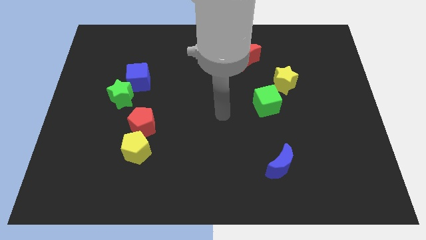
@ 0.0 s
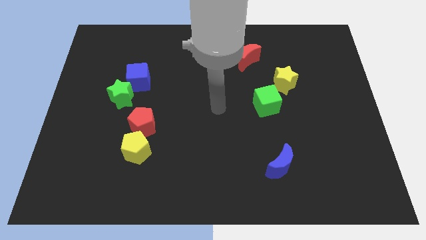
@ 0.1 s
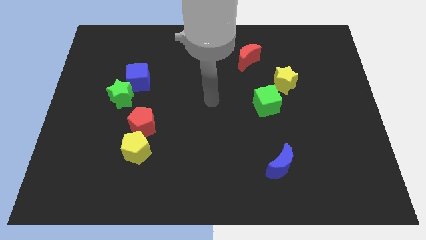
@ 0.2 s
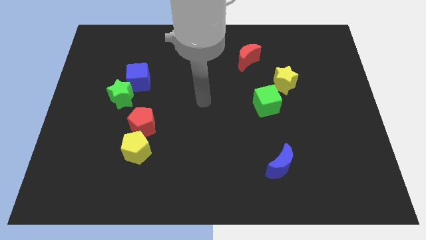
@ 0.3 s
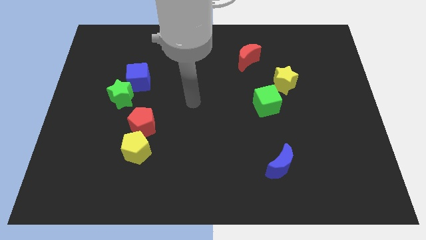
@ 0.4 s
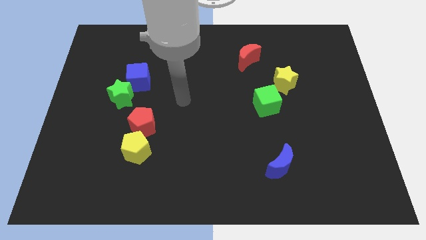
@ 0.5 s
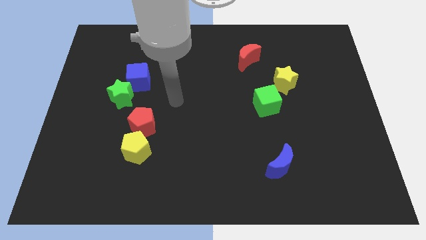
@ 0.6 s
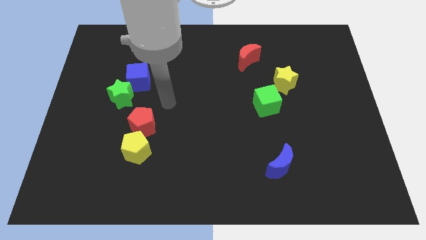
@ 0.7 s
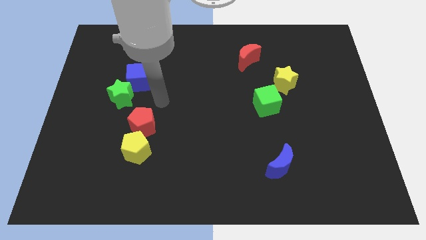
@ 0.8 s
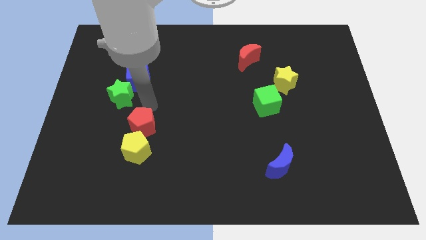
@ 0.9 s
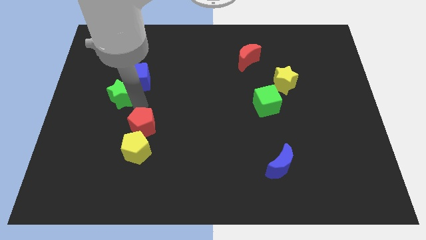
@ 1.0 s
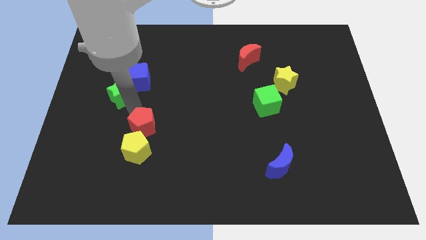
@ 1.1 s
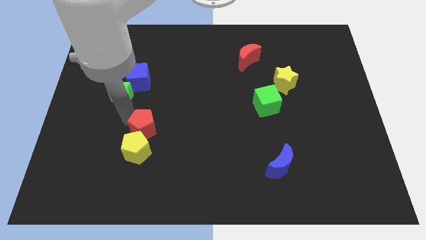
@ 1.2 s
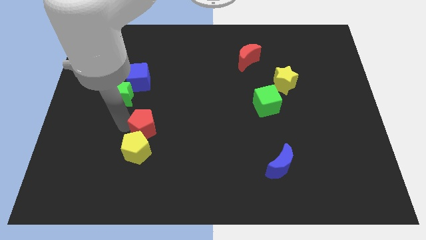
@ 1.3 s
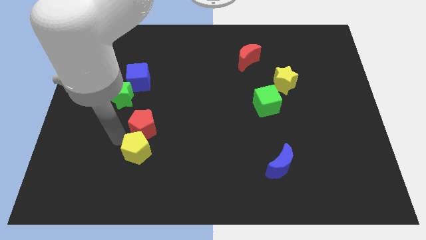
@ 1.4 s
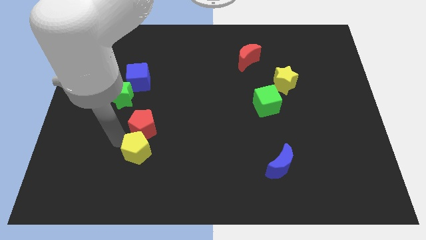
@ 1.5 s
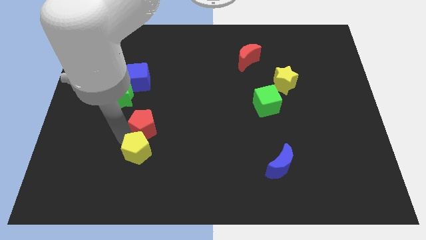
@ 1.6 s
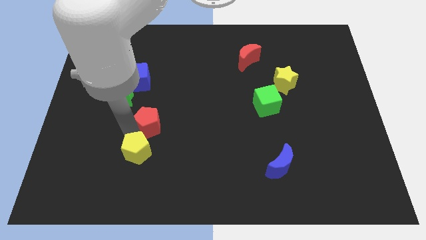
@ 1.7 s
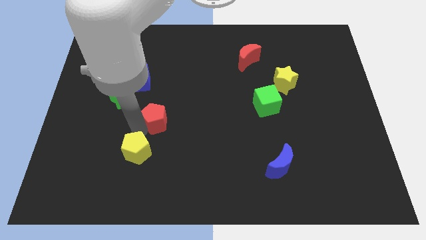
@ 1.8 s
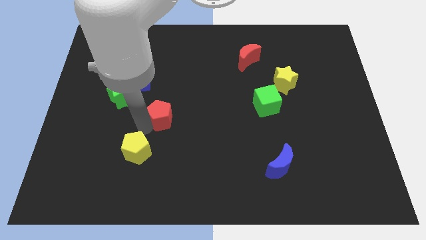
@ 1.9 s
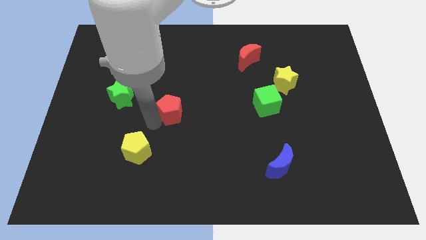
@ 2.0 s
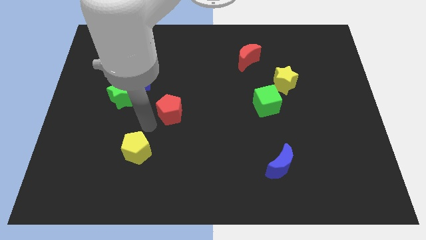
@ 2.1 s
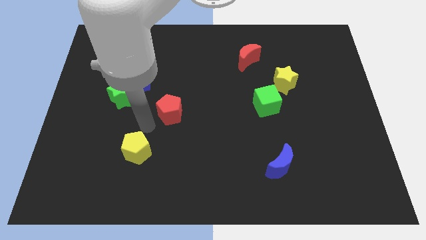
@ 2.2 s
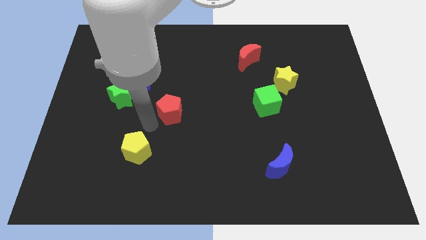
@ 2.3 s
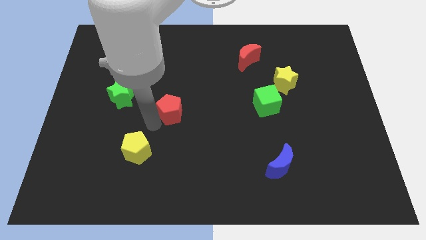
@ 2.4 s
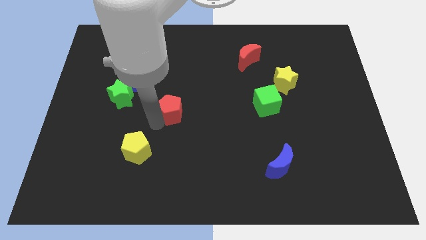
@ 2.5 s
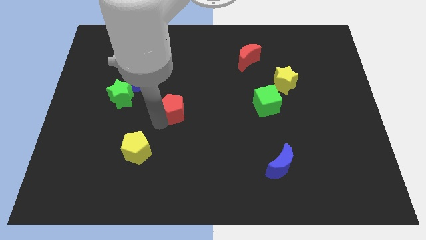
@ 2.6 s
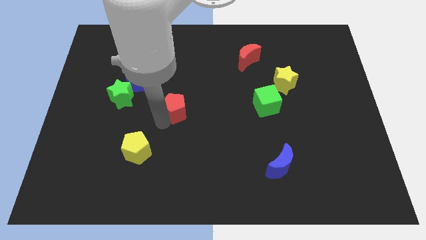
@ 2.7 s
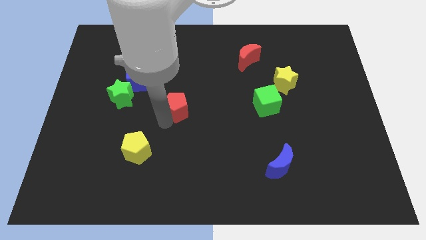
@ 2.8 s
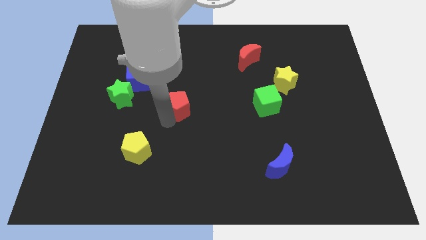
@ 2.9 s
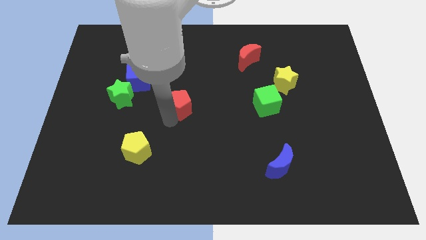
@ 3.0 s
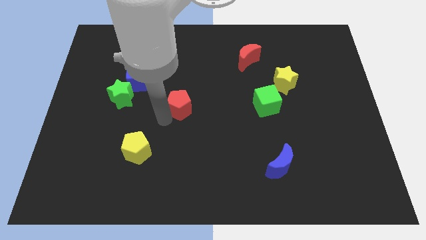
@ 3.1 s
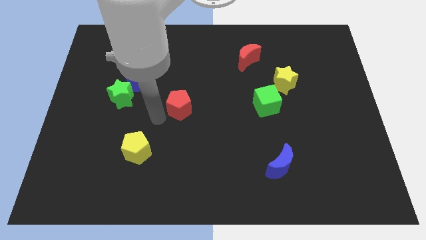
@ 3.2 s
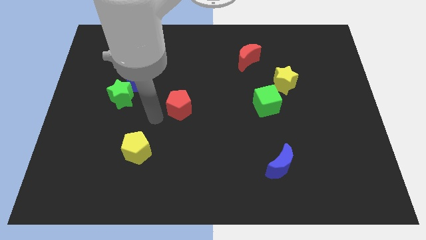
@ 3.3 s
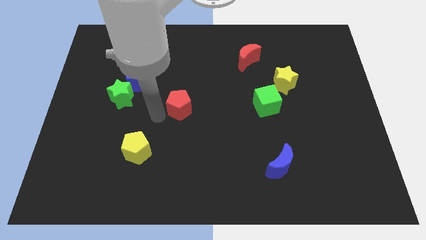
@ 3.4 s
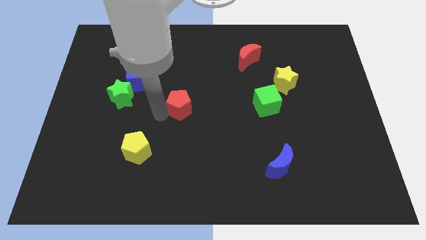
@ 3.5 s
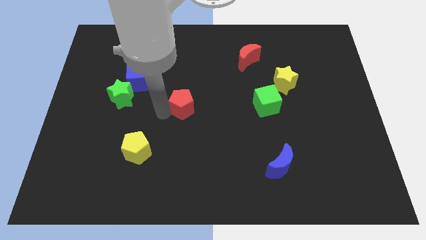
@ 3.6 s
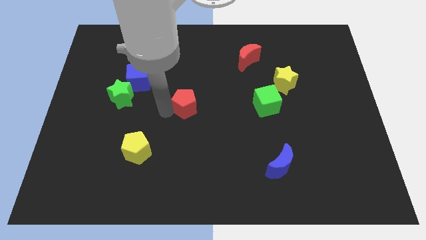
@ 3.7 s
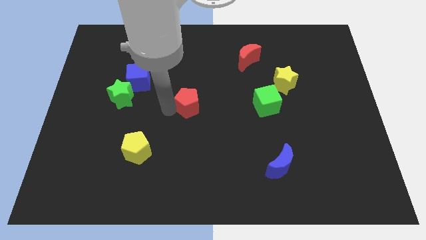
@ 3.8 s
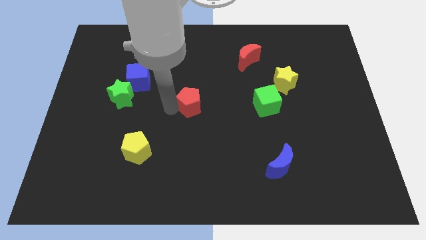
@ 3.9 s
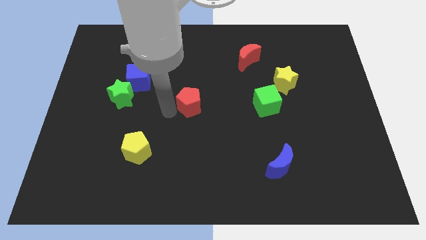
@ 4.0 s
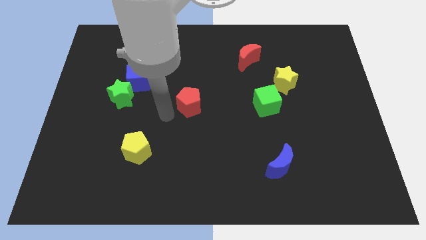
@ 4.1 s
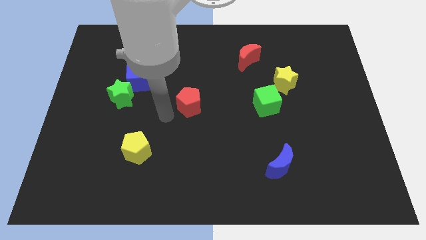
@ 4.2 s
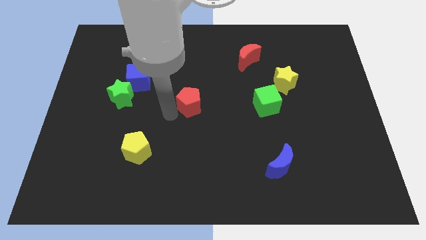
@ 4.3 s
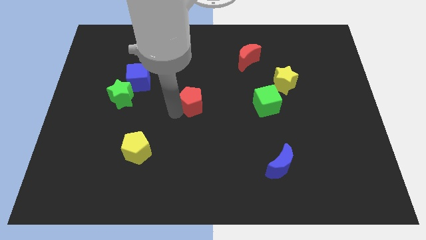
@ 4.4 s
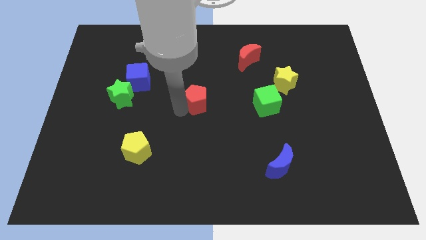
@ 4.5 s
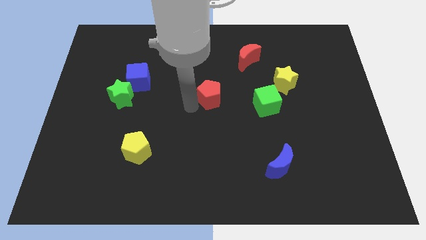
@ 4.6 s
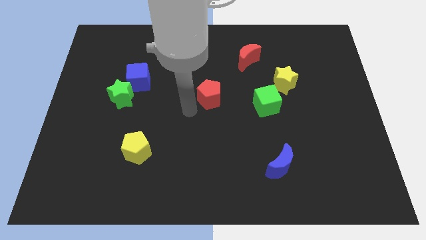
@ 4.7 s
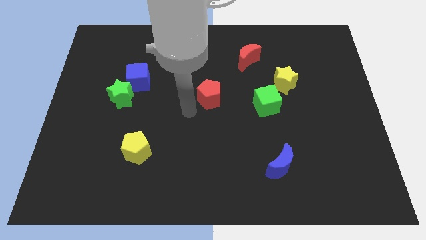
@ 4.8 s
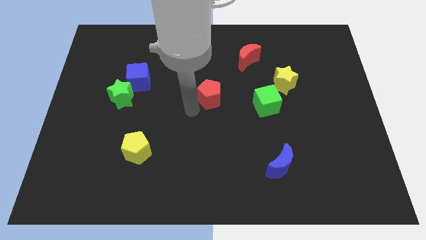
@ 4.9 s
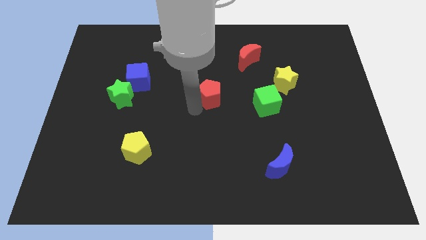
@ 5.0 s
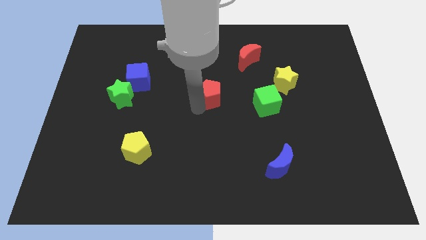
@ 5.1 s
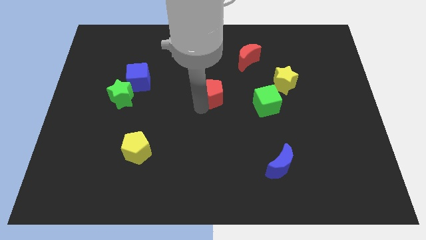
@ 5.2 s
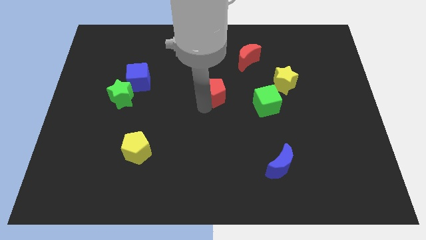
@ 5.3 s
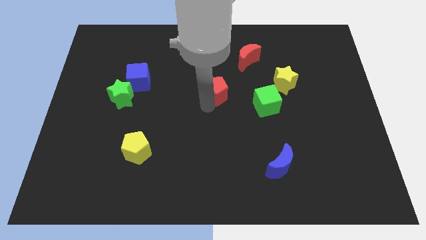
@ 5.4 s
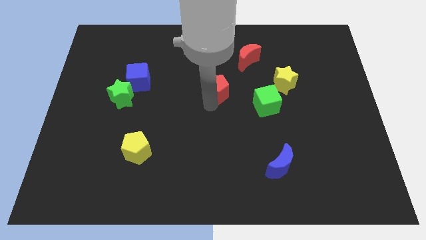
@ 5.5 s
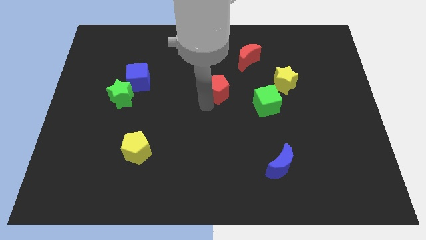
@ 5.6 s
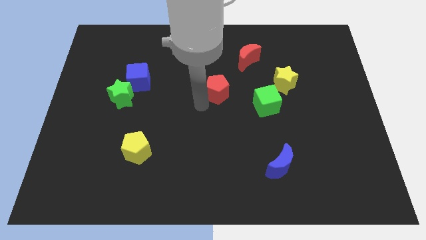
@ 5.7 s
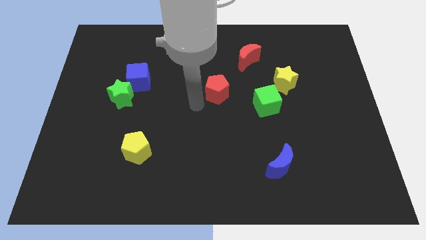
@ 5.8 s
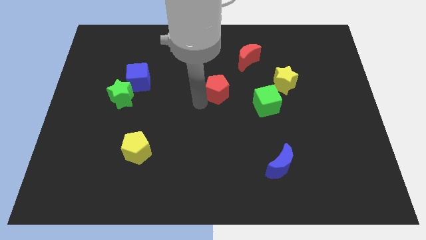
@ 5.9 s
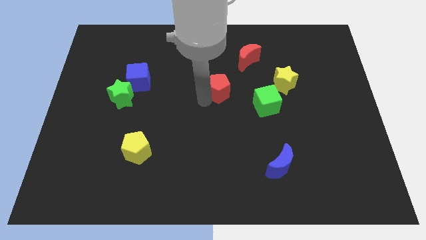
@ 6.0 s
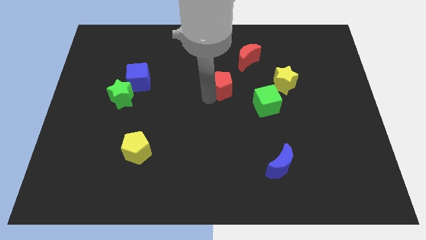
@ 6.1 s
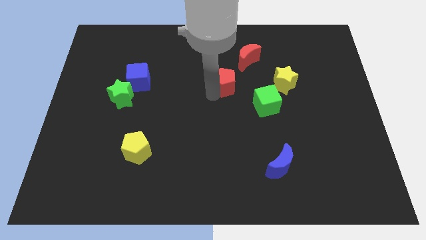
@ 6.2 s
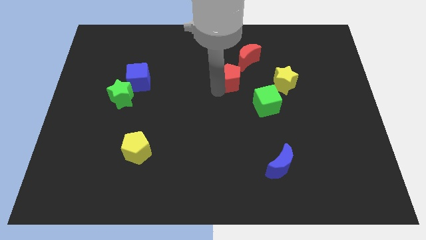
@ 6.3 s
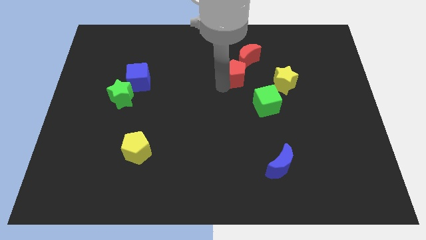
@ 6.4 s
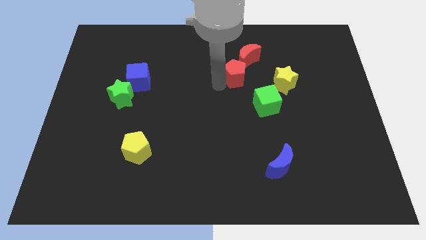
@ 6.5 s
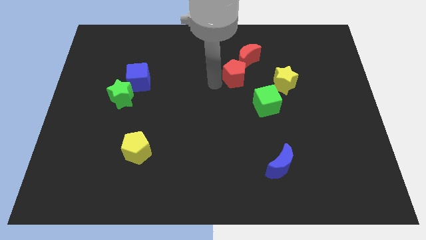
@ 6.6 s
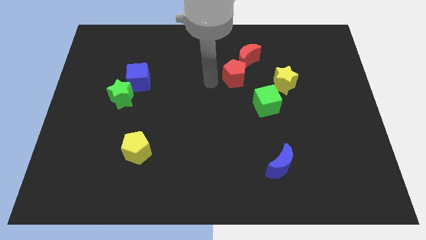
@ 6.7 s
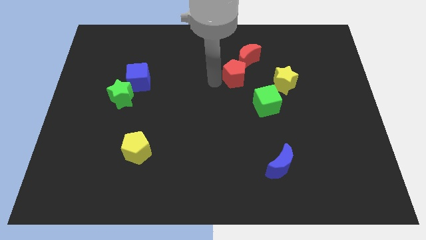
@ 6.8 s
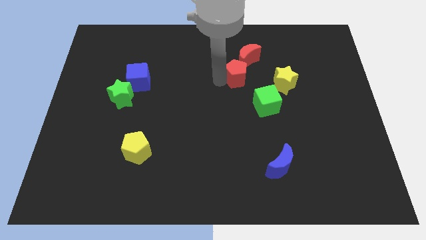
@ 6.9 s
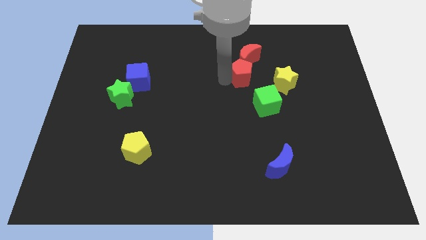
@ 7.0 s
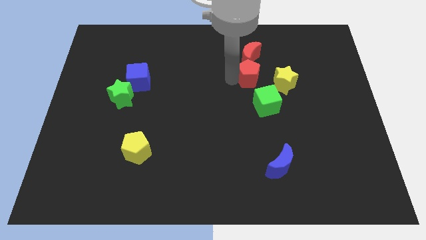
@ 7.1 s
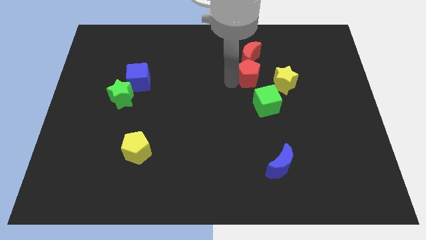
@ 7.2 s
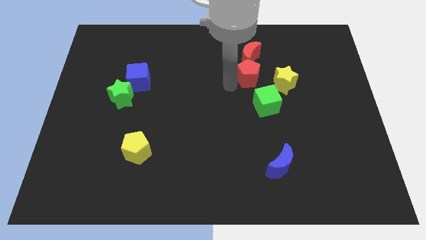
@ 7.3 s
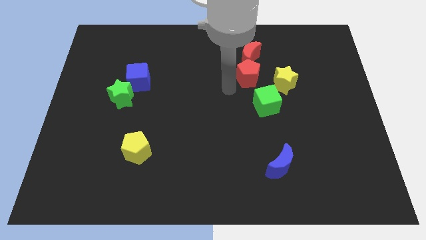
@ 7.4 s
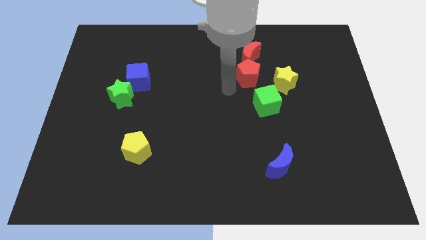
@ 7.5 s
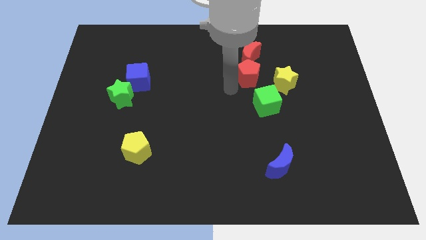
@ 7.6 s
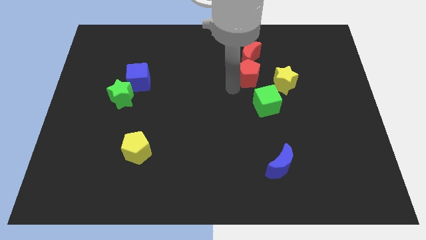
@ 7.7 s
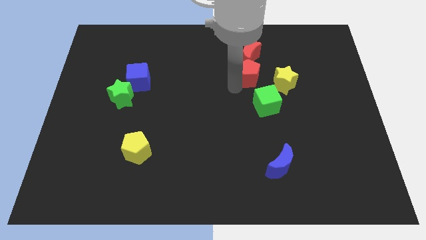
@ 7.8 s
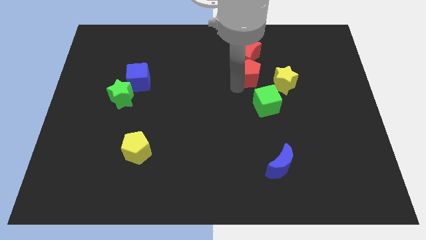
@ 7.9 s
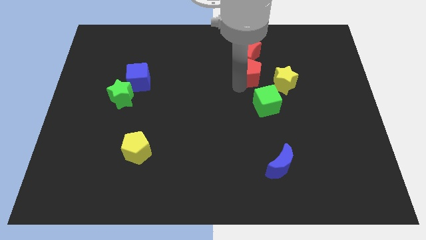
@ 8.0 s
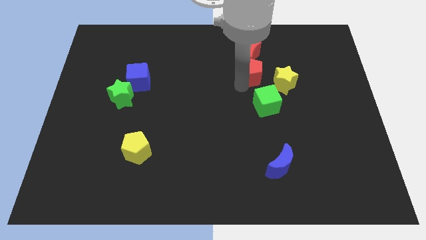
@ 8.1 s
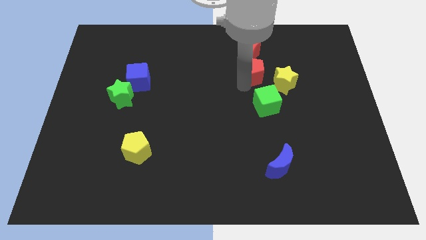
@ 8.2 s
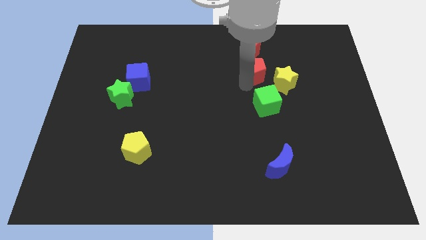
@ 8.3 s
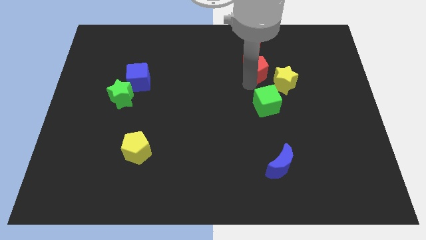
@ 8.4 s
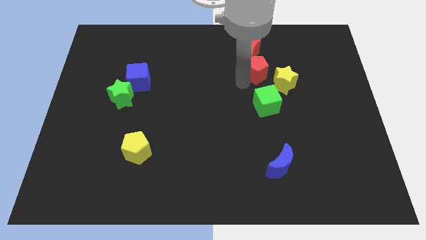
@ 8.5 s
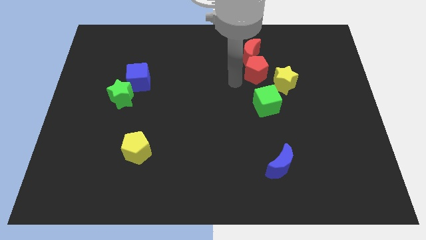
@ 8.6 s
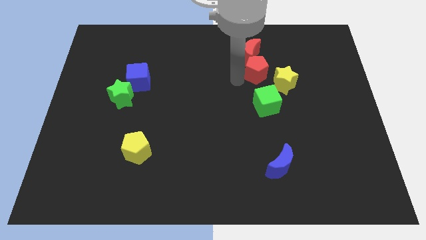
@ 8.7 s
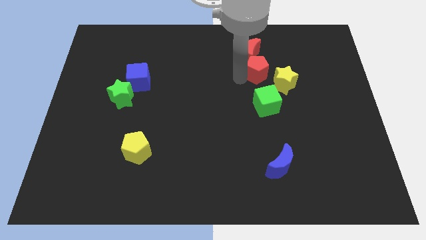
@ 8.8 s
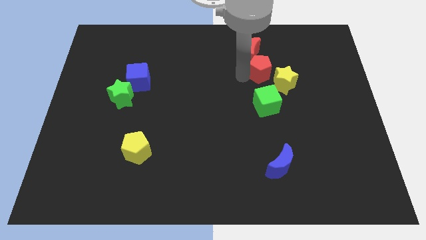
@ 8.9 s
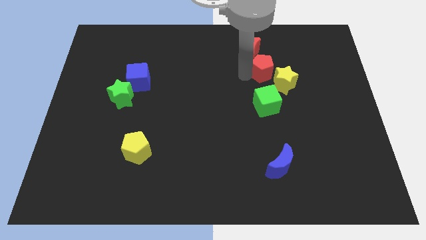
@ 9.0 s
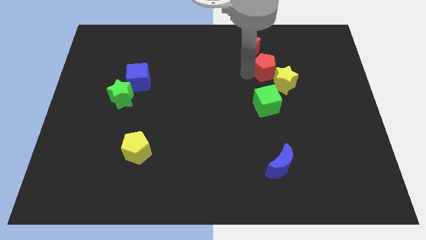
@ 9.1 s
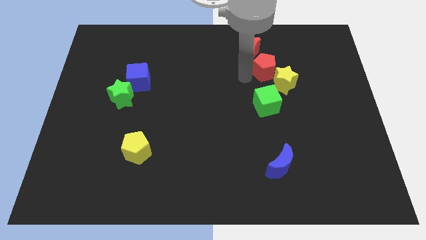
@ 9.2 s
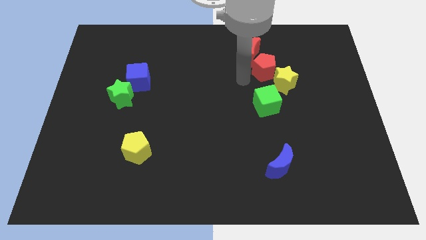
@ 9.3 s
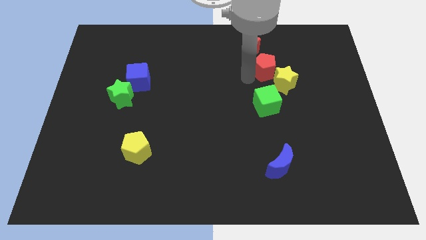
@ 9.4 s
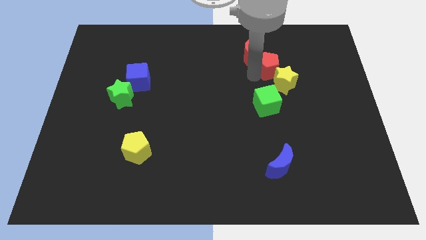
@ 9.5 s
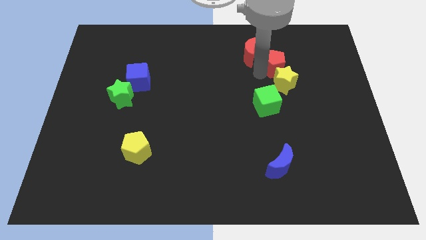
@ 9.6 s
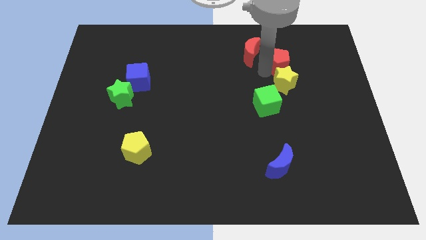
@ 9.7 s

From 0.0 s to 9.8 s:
slide the red pentagon to the top right of the yellow star
